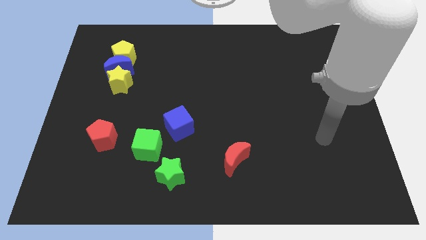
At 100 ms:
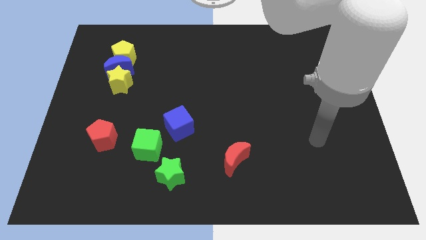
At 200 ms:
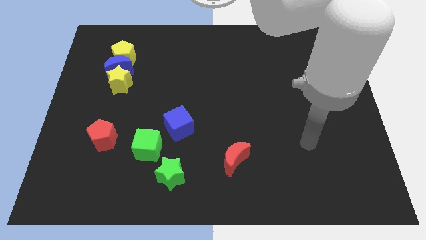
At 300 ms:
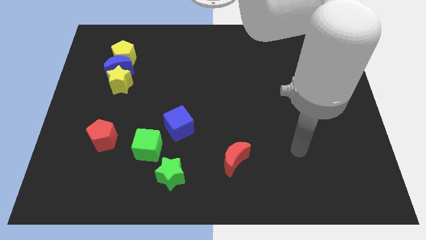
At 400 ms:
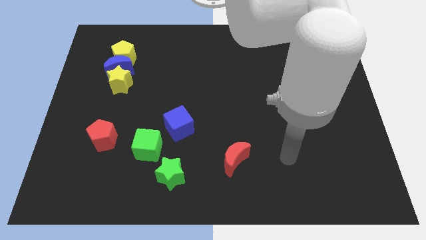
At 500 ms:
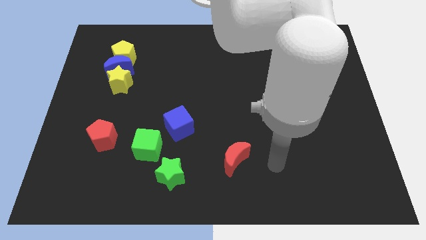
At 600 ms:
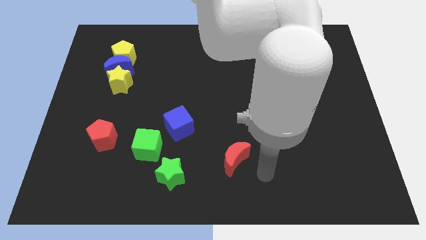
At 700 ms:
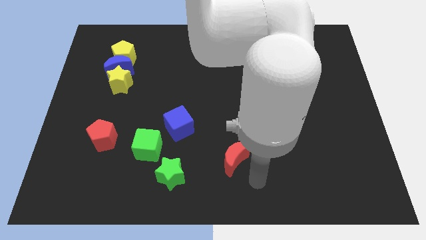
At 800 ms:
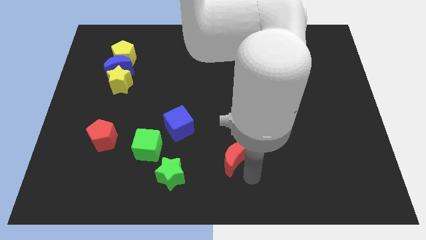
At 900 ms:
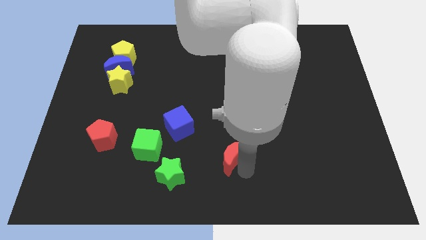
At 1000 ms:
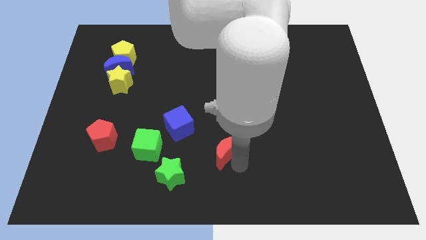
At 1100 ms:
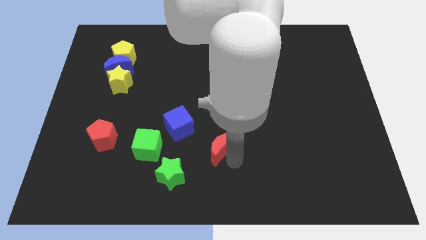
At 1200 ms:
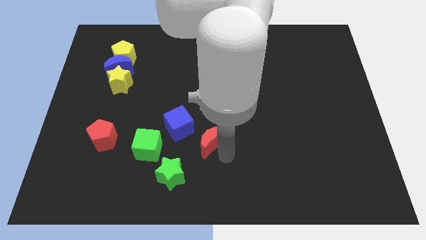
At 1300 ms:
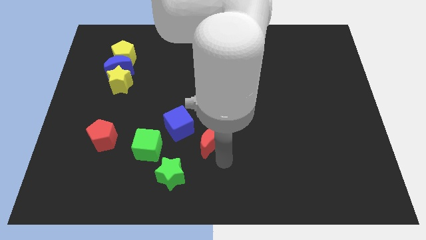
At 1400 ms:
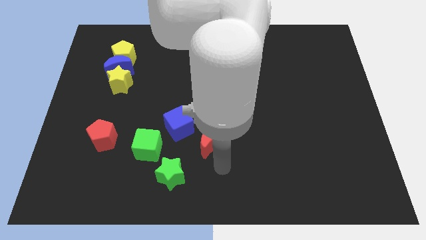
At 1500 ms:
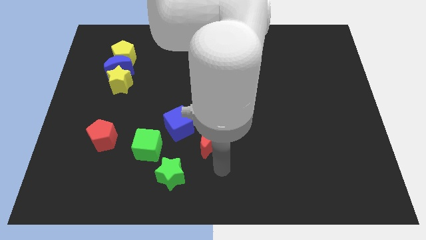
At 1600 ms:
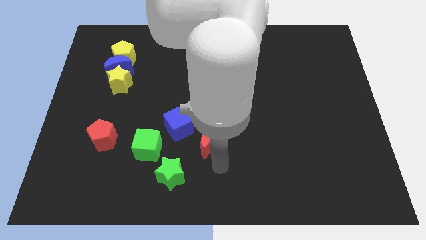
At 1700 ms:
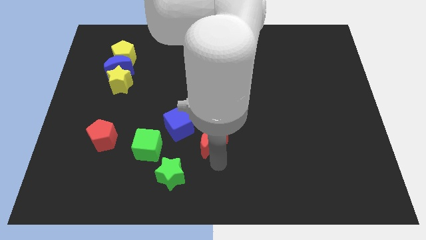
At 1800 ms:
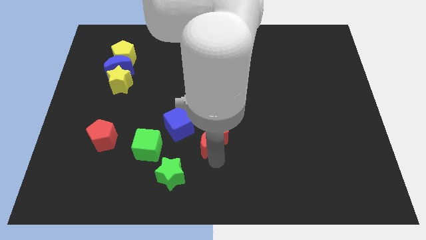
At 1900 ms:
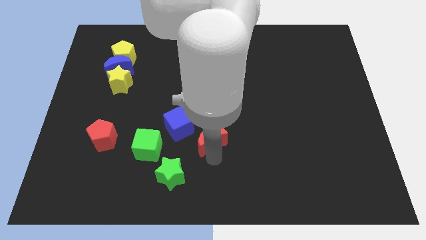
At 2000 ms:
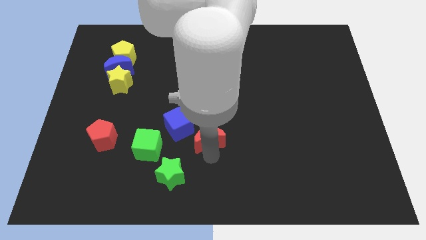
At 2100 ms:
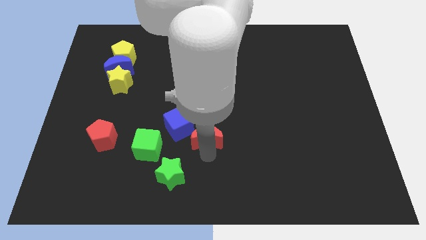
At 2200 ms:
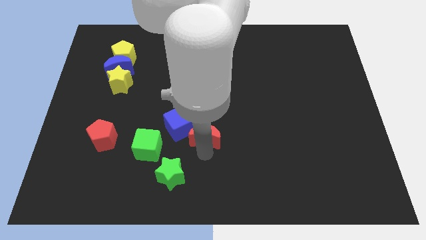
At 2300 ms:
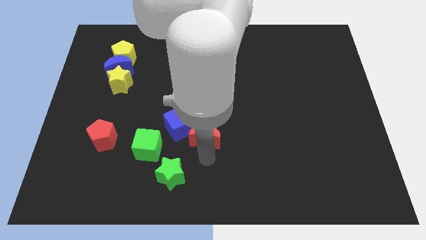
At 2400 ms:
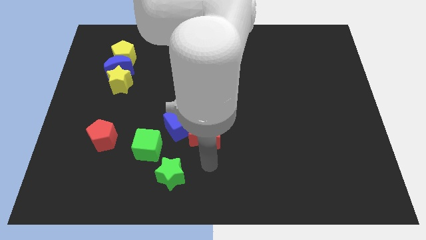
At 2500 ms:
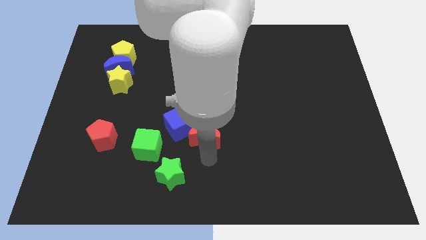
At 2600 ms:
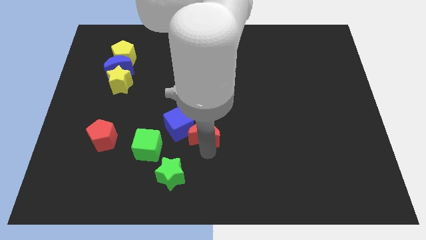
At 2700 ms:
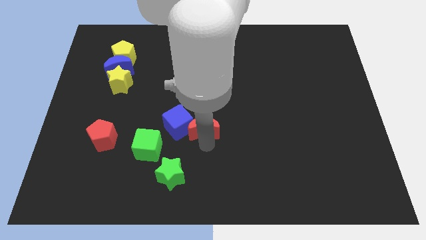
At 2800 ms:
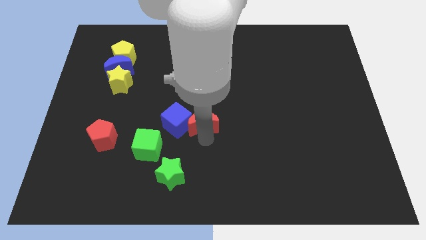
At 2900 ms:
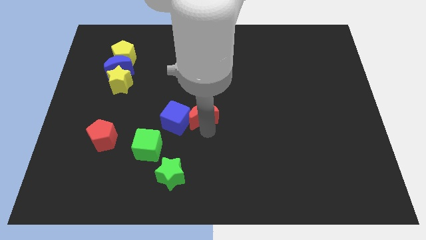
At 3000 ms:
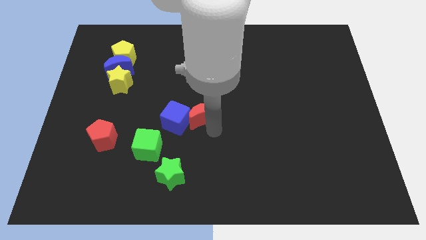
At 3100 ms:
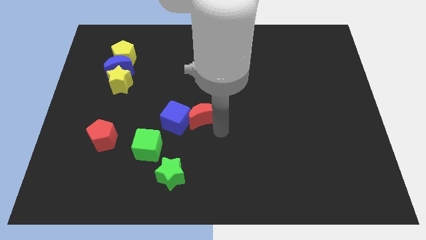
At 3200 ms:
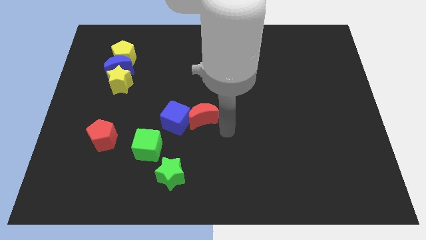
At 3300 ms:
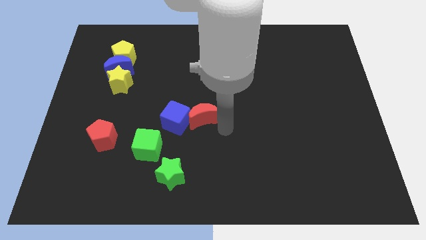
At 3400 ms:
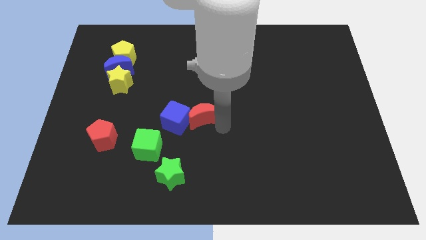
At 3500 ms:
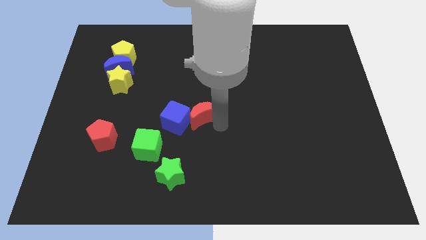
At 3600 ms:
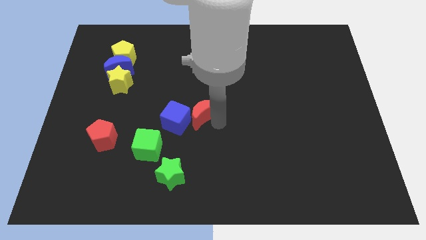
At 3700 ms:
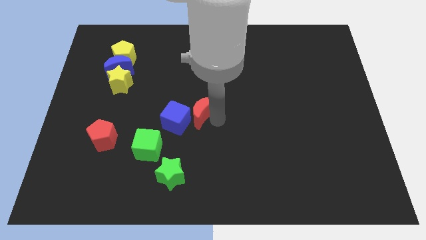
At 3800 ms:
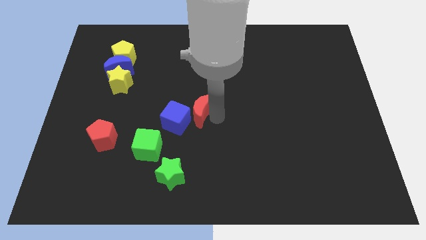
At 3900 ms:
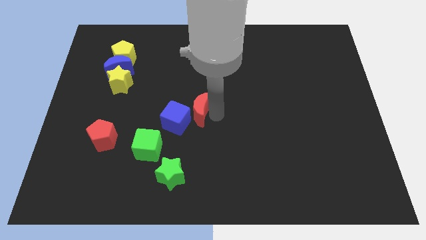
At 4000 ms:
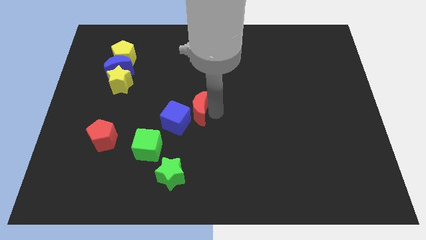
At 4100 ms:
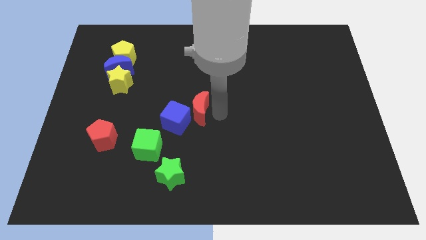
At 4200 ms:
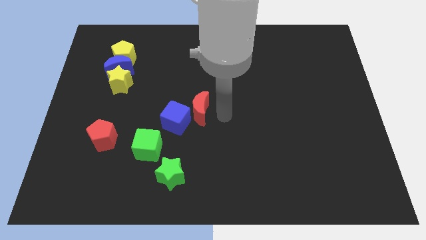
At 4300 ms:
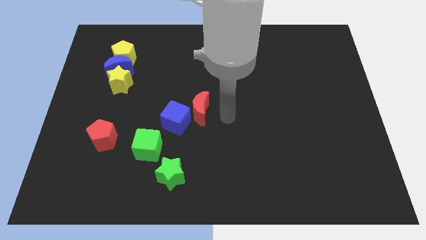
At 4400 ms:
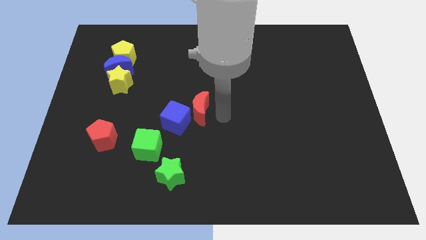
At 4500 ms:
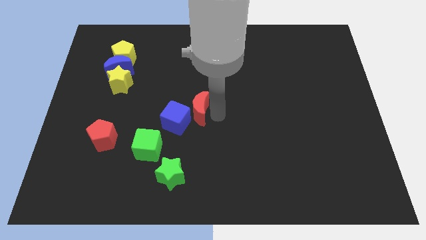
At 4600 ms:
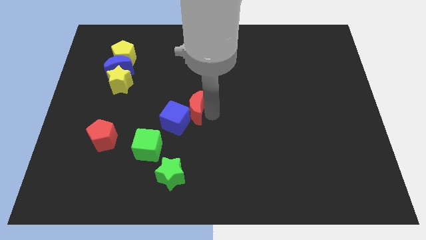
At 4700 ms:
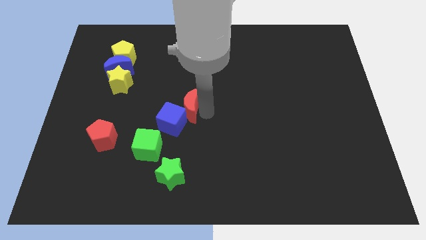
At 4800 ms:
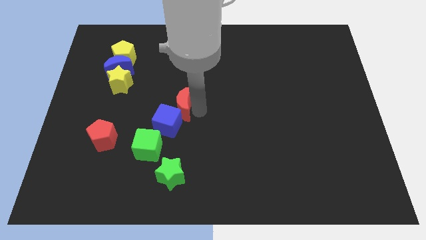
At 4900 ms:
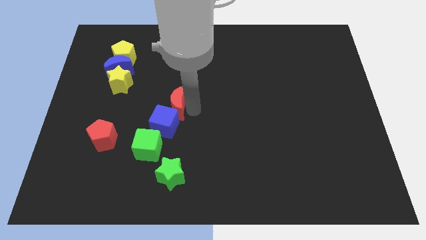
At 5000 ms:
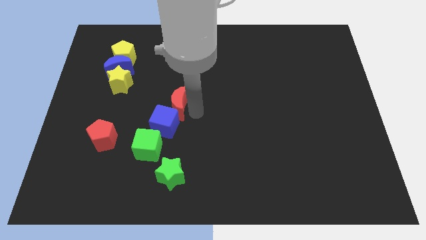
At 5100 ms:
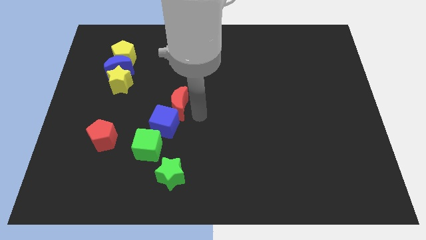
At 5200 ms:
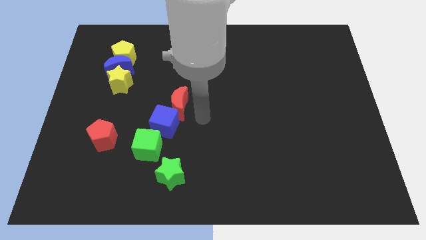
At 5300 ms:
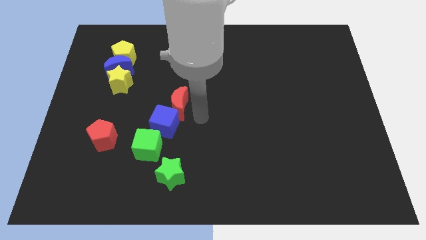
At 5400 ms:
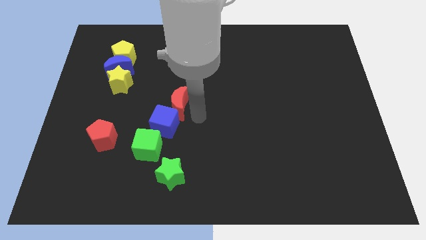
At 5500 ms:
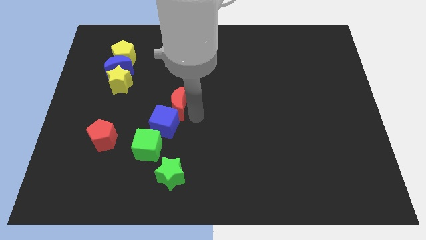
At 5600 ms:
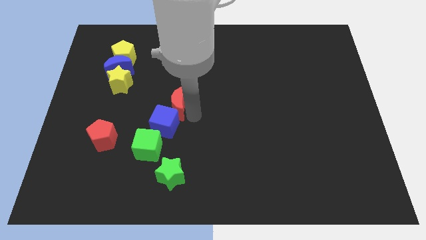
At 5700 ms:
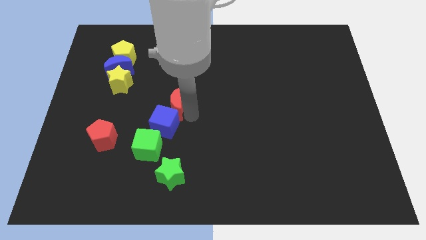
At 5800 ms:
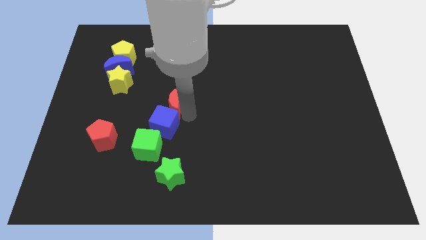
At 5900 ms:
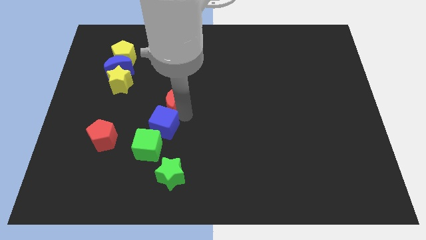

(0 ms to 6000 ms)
move the red moon upwards and then left

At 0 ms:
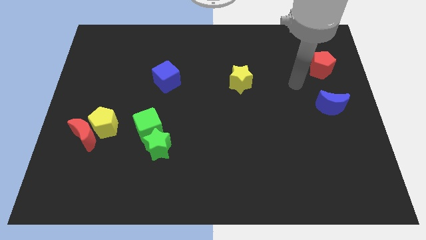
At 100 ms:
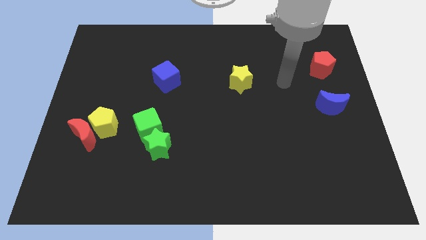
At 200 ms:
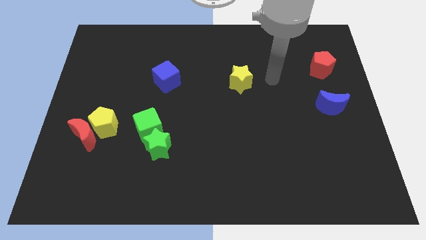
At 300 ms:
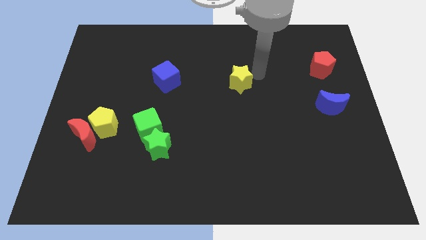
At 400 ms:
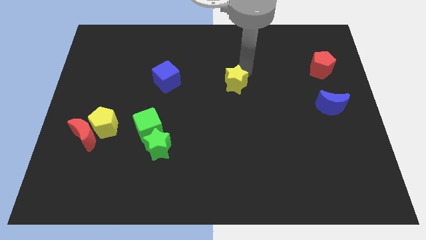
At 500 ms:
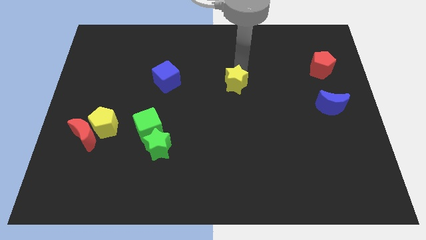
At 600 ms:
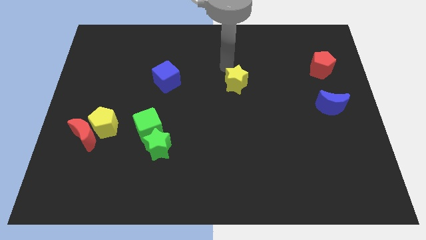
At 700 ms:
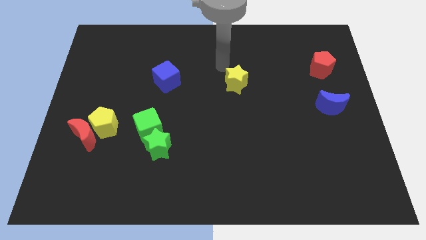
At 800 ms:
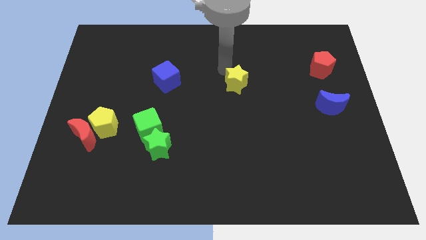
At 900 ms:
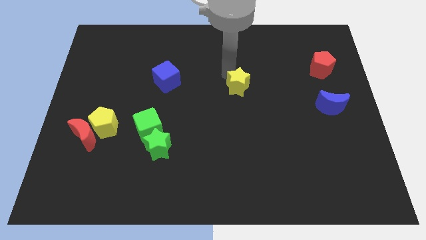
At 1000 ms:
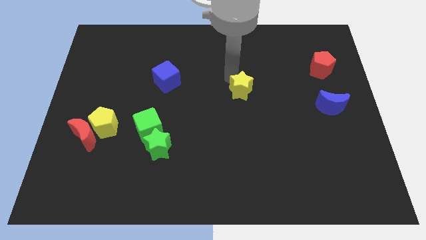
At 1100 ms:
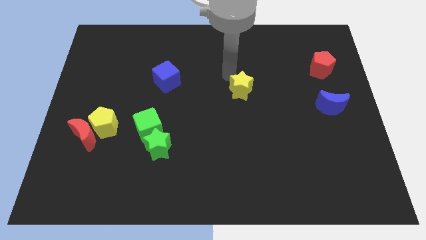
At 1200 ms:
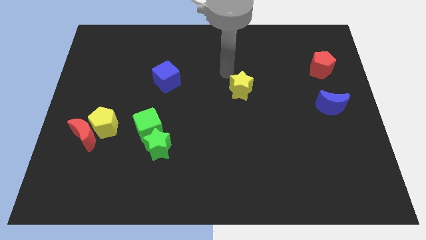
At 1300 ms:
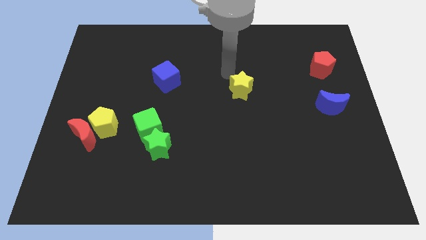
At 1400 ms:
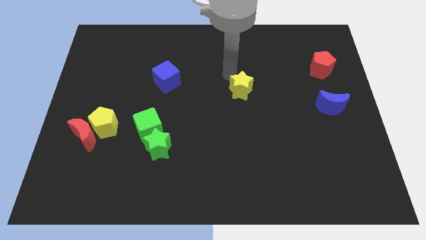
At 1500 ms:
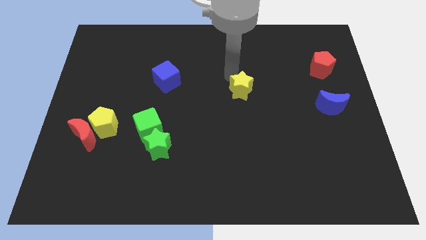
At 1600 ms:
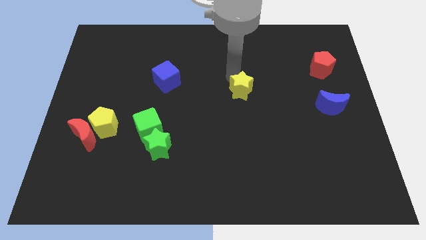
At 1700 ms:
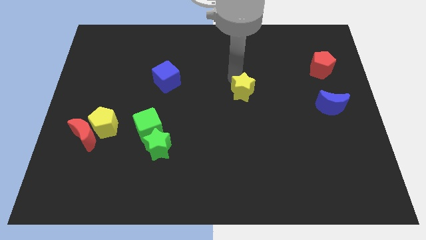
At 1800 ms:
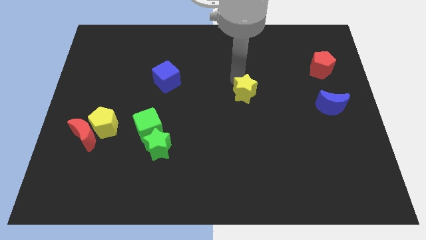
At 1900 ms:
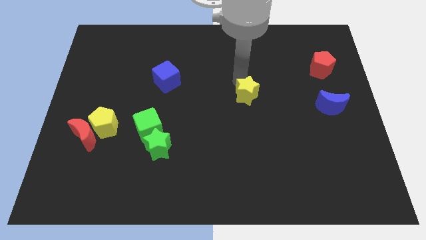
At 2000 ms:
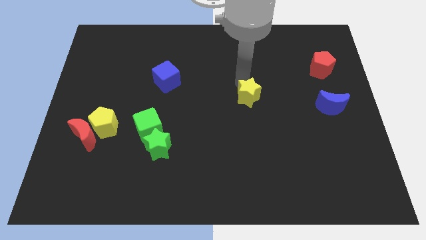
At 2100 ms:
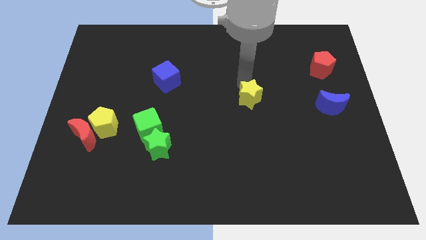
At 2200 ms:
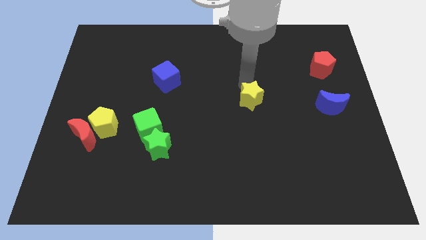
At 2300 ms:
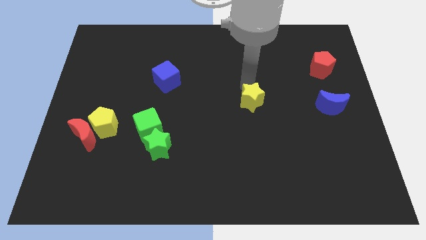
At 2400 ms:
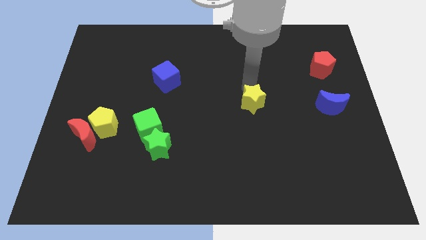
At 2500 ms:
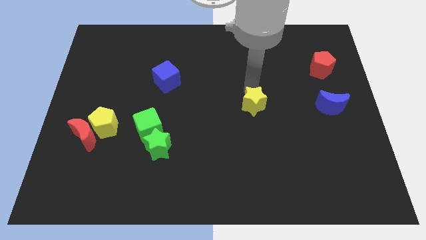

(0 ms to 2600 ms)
slightly slide the yellow star down

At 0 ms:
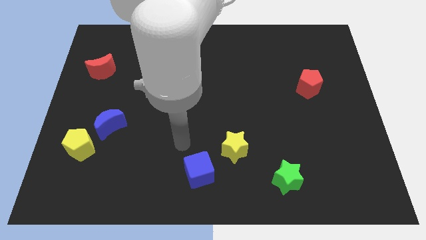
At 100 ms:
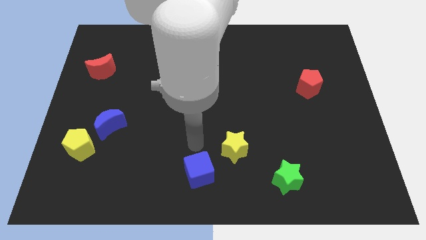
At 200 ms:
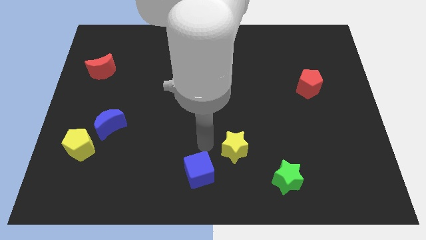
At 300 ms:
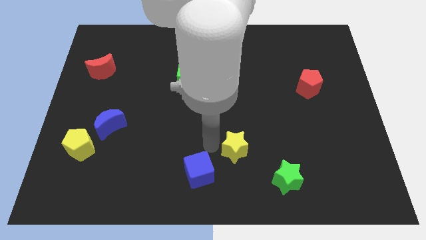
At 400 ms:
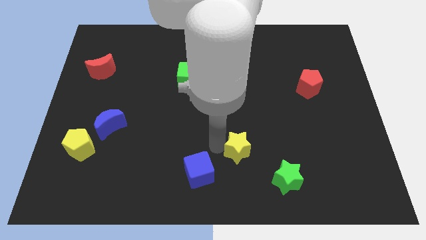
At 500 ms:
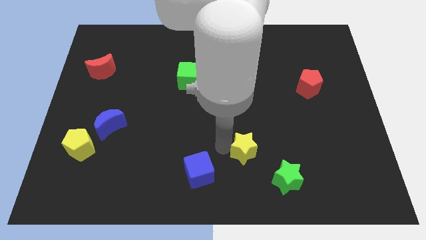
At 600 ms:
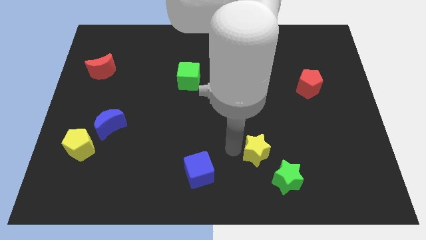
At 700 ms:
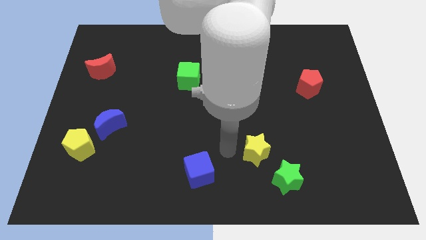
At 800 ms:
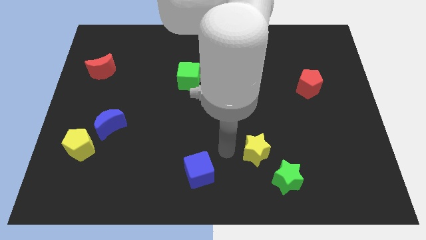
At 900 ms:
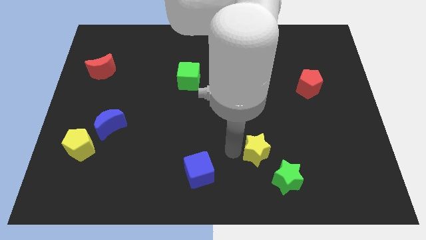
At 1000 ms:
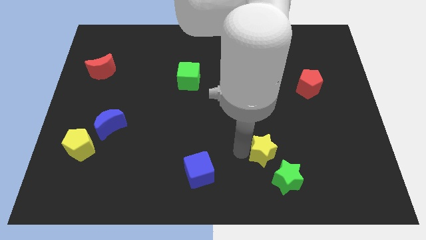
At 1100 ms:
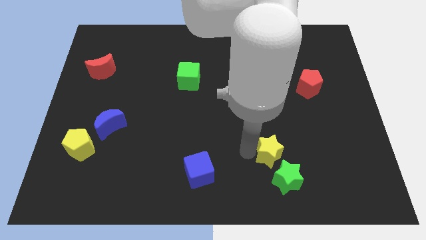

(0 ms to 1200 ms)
push the yellow star to the right slightly
